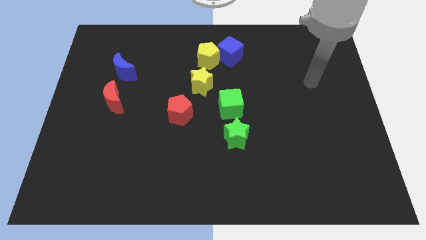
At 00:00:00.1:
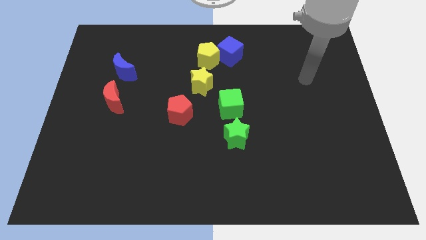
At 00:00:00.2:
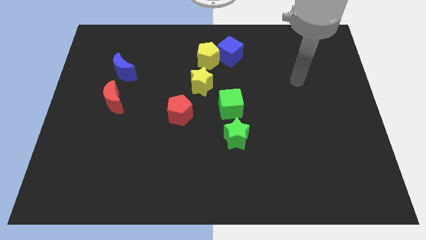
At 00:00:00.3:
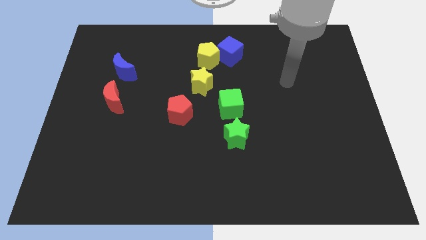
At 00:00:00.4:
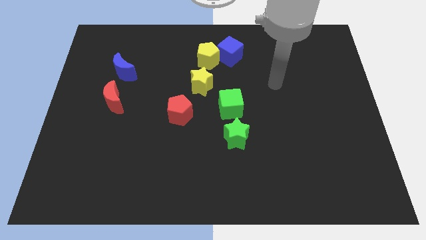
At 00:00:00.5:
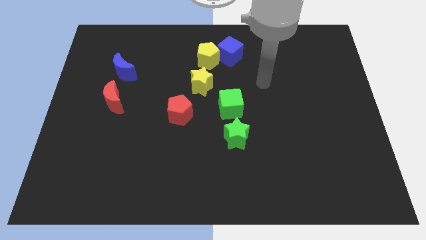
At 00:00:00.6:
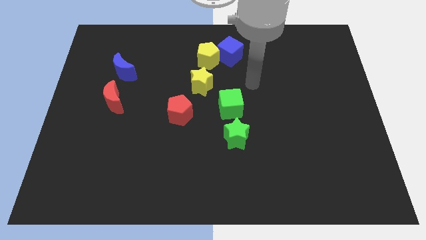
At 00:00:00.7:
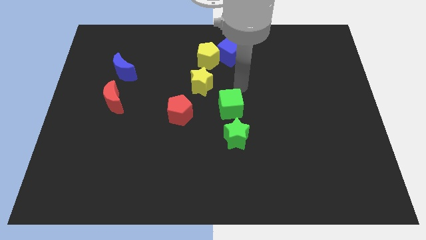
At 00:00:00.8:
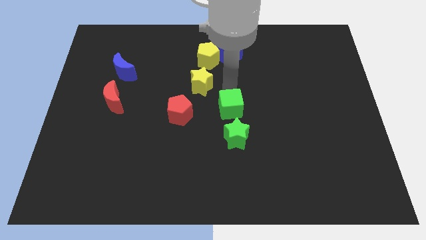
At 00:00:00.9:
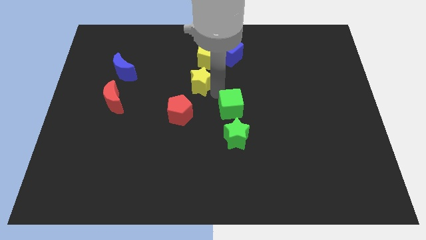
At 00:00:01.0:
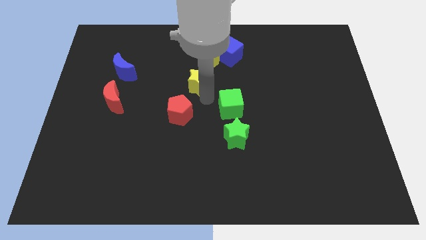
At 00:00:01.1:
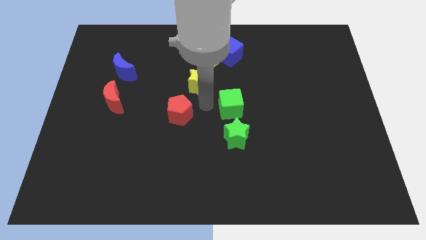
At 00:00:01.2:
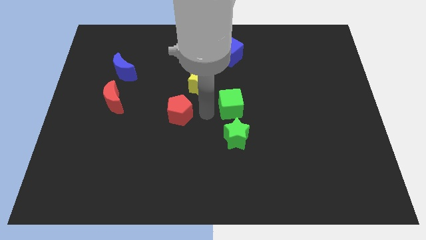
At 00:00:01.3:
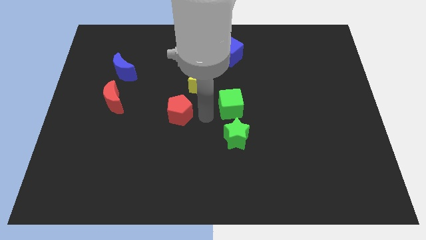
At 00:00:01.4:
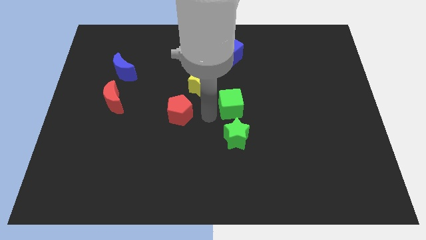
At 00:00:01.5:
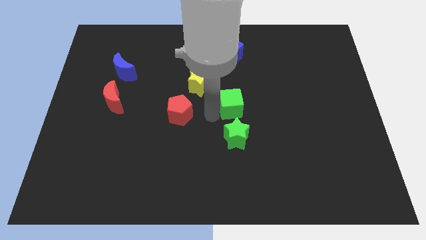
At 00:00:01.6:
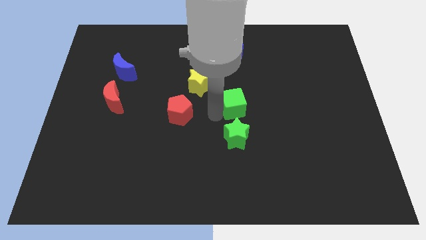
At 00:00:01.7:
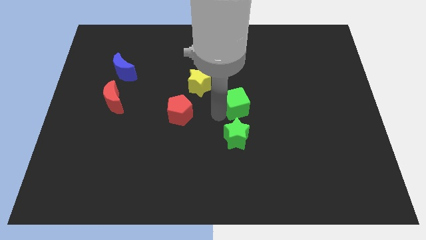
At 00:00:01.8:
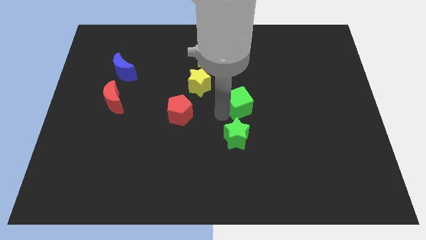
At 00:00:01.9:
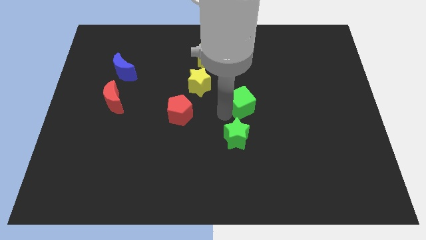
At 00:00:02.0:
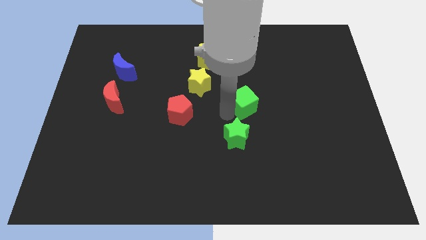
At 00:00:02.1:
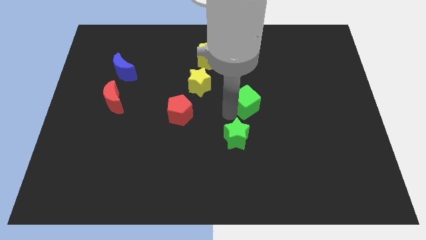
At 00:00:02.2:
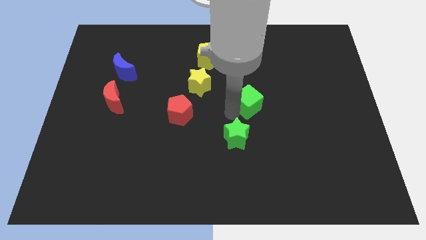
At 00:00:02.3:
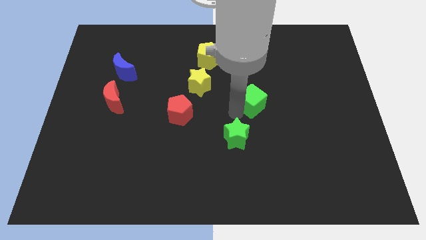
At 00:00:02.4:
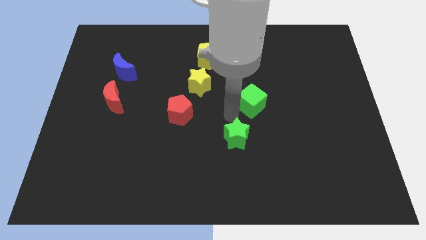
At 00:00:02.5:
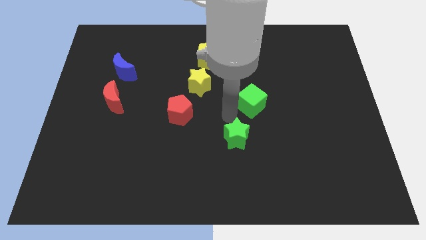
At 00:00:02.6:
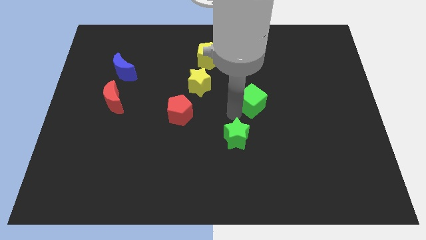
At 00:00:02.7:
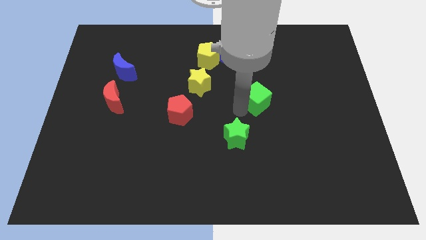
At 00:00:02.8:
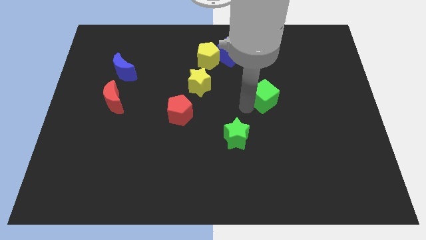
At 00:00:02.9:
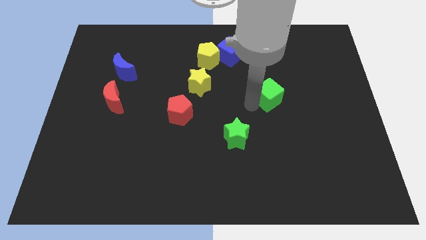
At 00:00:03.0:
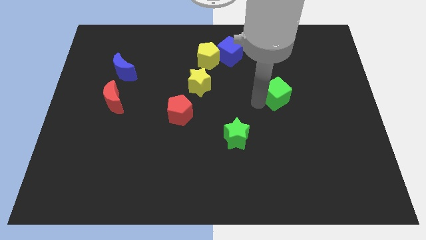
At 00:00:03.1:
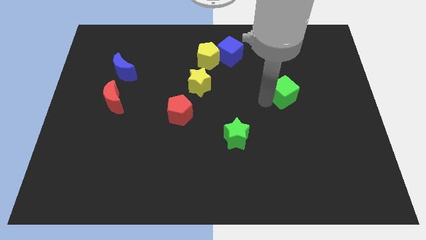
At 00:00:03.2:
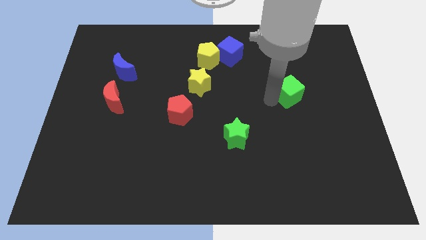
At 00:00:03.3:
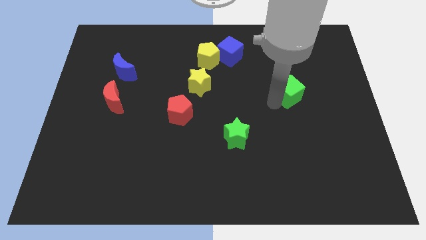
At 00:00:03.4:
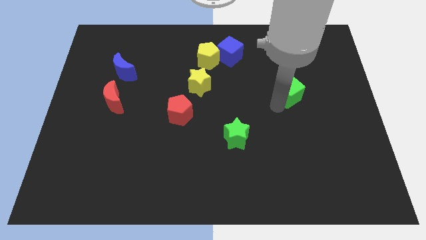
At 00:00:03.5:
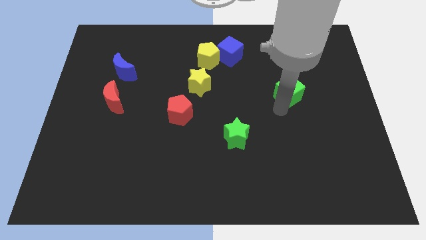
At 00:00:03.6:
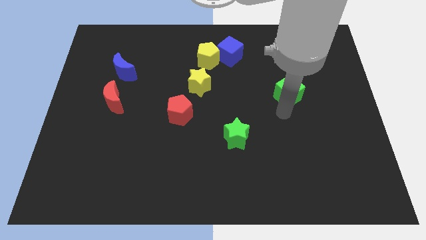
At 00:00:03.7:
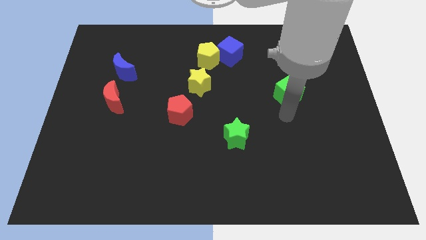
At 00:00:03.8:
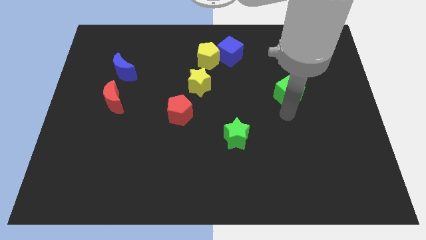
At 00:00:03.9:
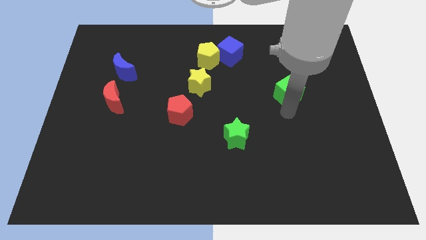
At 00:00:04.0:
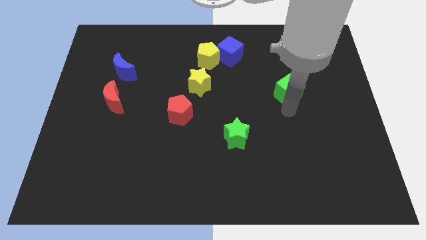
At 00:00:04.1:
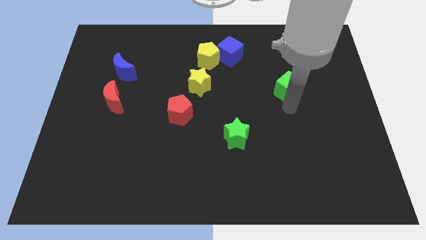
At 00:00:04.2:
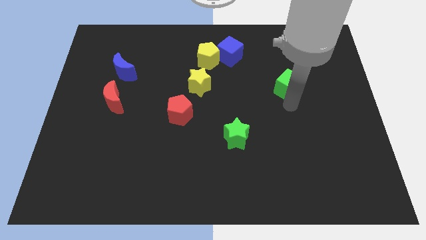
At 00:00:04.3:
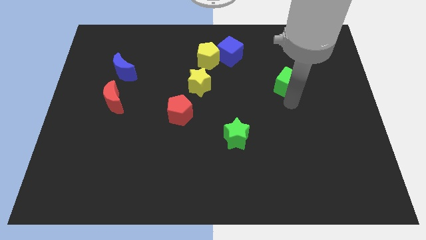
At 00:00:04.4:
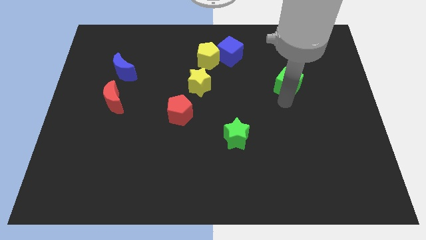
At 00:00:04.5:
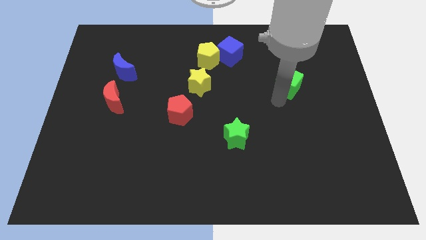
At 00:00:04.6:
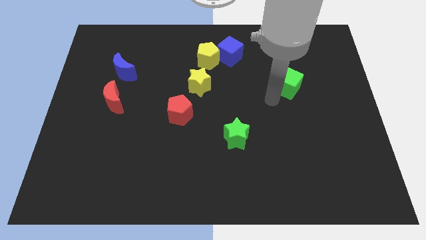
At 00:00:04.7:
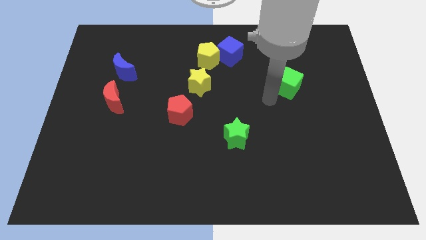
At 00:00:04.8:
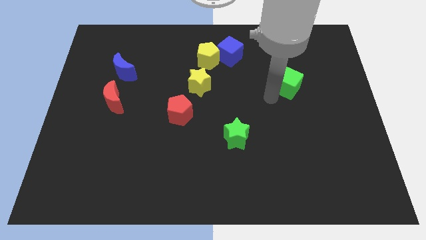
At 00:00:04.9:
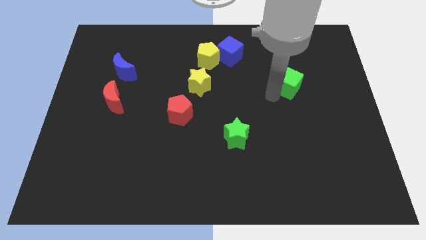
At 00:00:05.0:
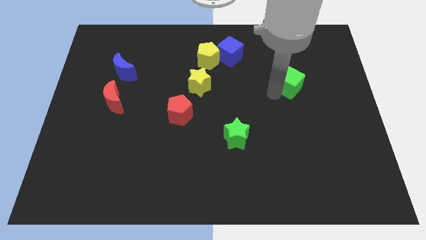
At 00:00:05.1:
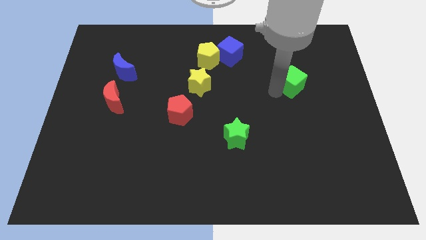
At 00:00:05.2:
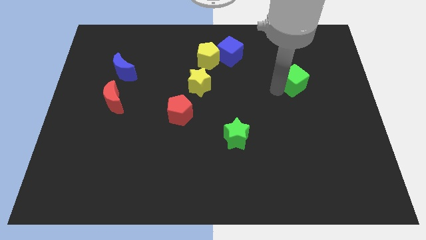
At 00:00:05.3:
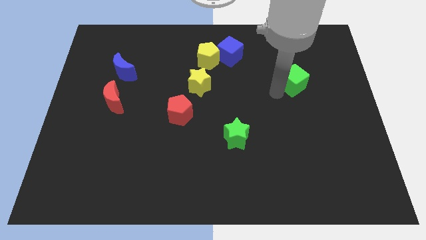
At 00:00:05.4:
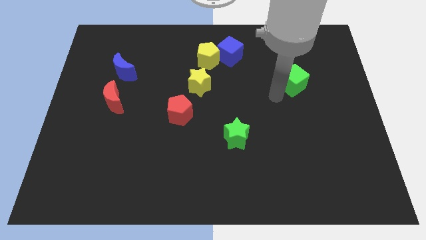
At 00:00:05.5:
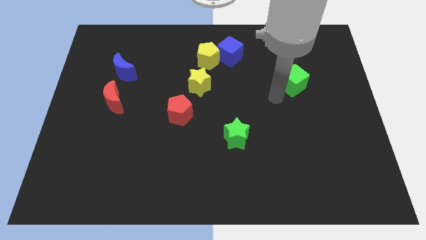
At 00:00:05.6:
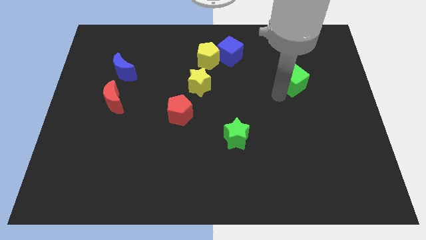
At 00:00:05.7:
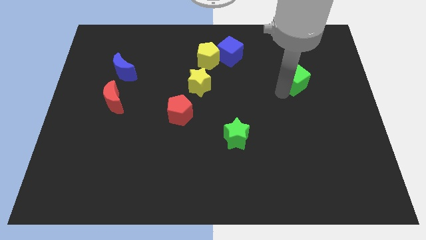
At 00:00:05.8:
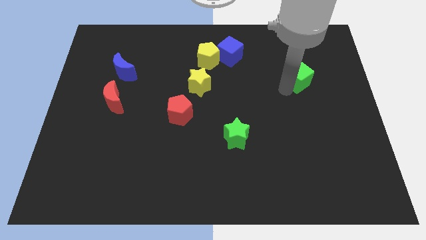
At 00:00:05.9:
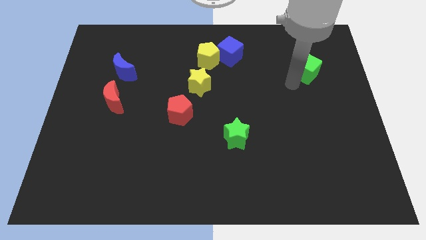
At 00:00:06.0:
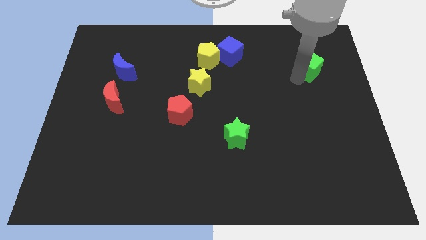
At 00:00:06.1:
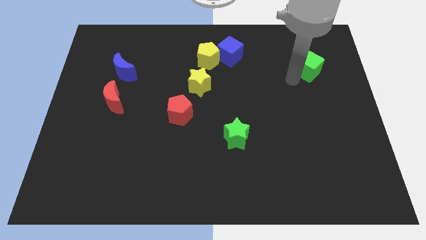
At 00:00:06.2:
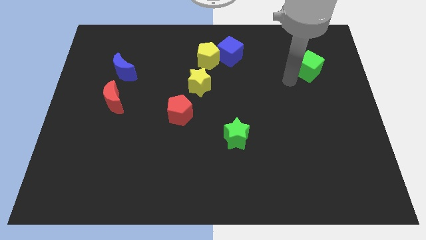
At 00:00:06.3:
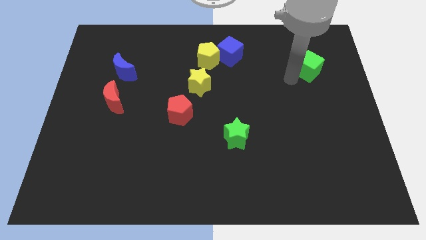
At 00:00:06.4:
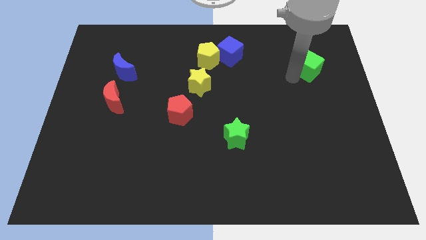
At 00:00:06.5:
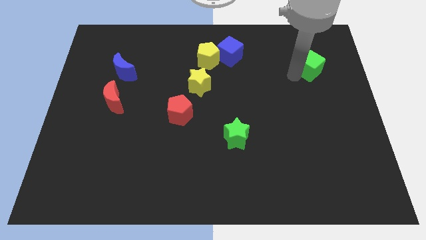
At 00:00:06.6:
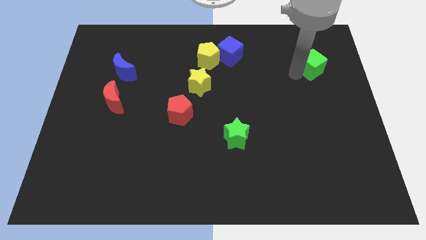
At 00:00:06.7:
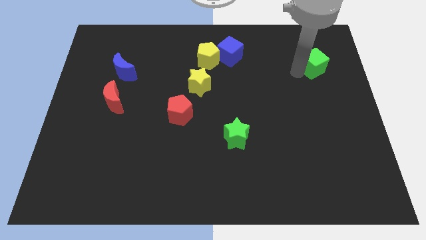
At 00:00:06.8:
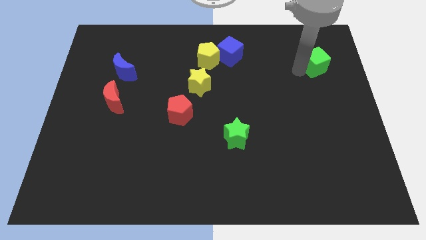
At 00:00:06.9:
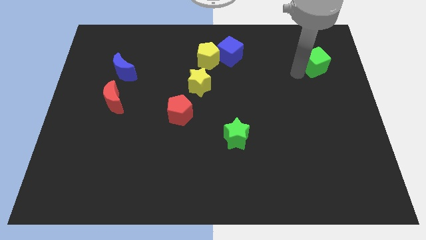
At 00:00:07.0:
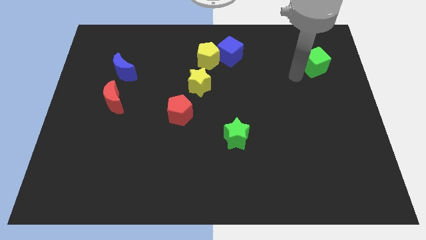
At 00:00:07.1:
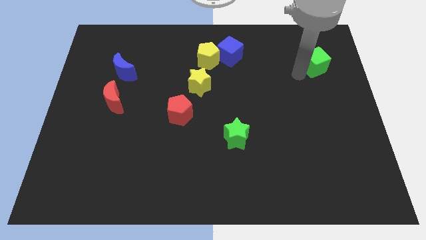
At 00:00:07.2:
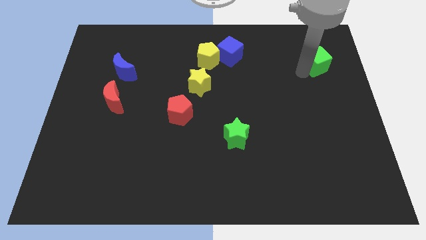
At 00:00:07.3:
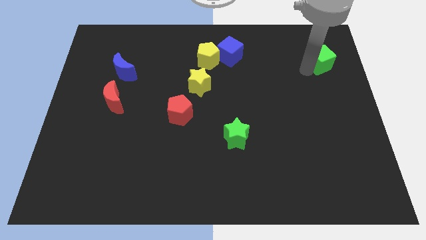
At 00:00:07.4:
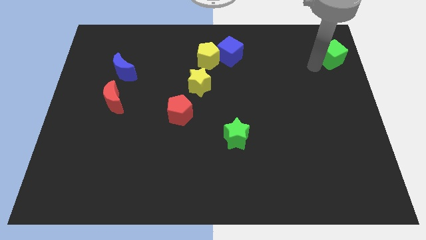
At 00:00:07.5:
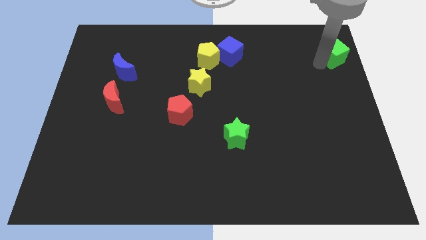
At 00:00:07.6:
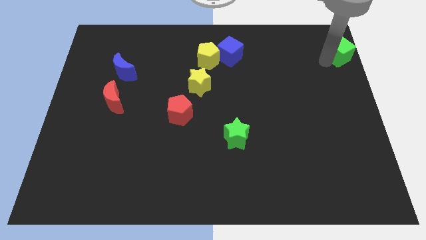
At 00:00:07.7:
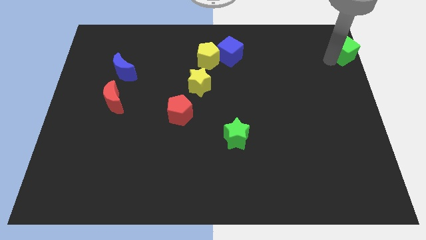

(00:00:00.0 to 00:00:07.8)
slide the green cube to the top right of the board
